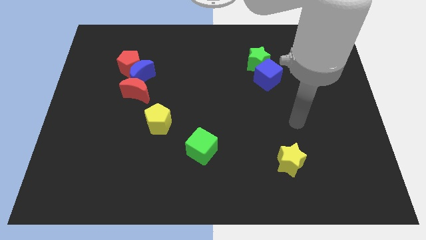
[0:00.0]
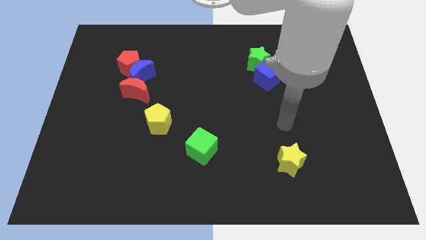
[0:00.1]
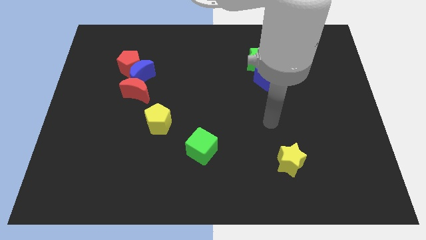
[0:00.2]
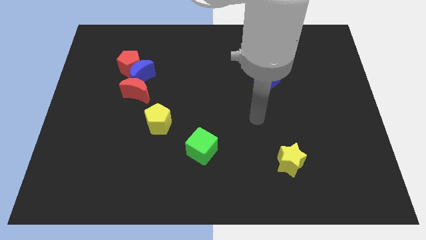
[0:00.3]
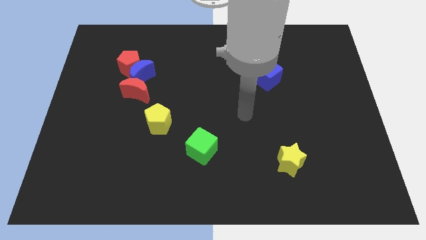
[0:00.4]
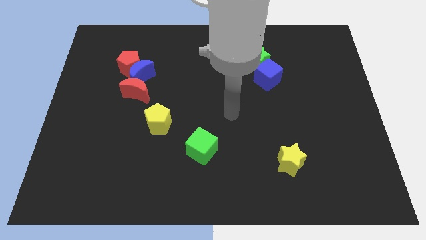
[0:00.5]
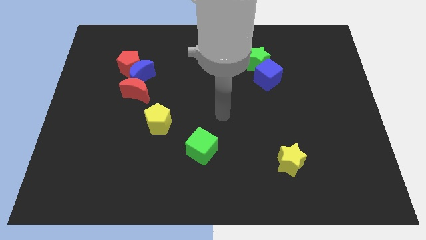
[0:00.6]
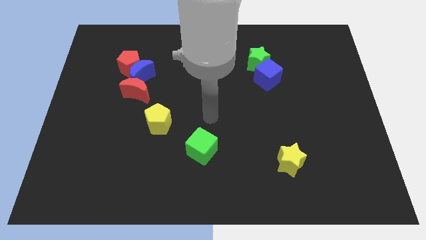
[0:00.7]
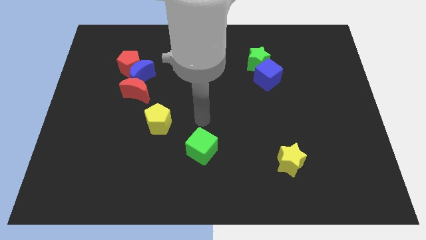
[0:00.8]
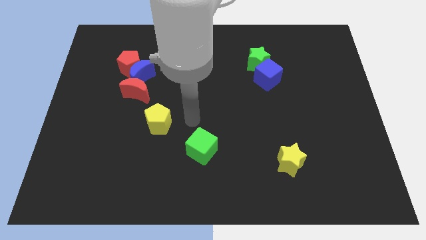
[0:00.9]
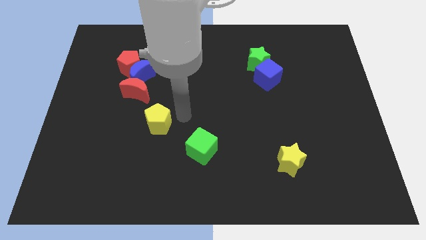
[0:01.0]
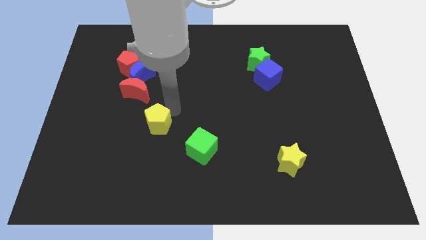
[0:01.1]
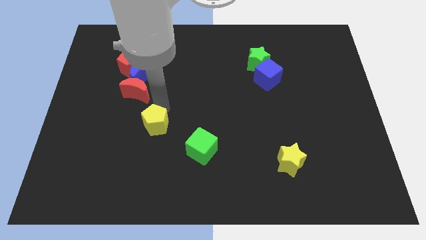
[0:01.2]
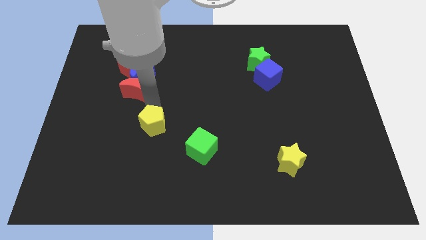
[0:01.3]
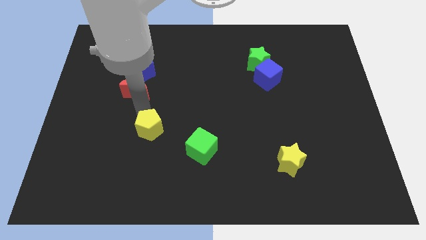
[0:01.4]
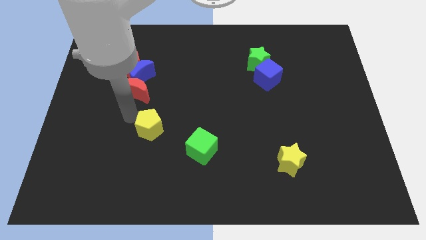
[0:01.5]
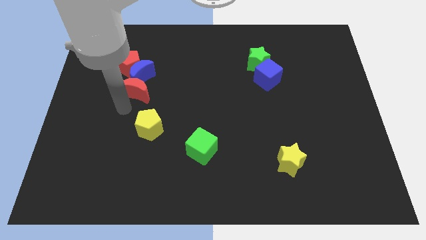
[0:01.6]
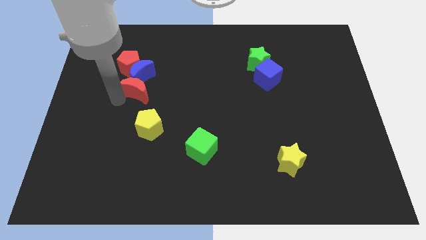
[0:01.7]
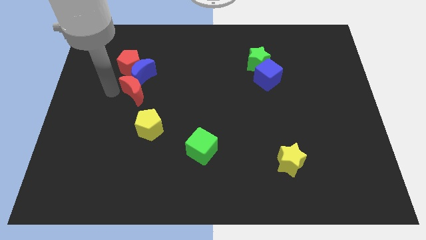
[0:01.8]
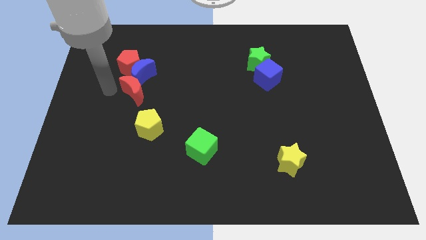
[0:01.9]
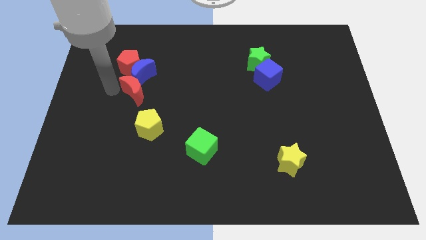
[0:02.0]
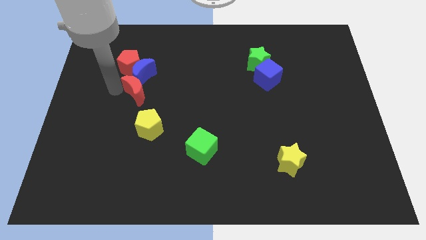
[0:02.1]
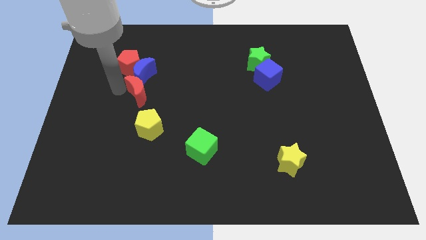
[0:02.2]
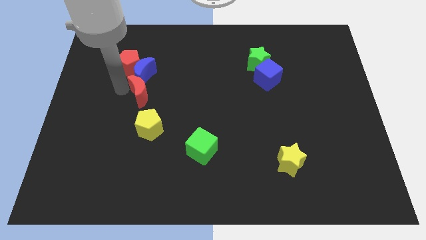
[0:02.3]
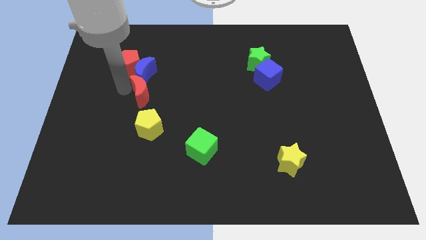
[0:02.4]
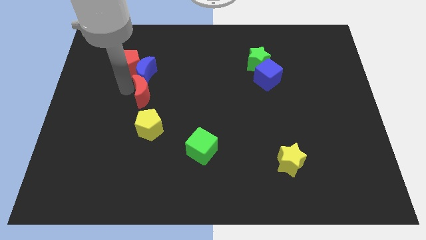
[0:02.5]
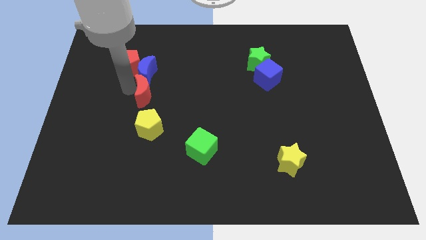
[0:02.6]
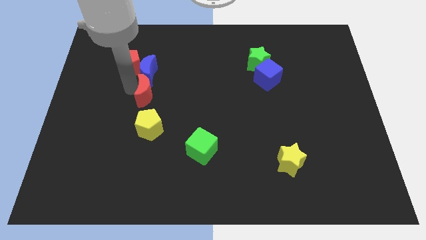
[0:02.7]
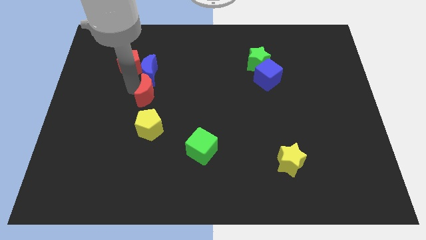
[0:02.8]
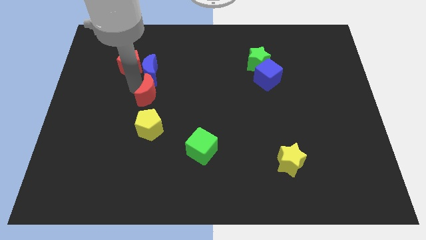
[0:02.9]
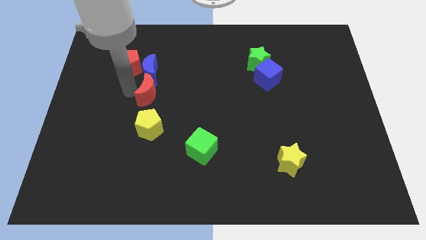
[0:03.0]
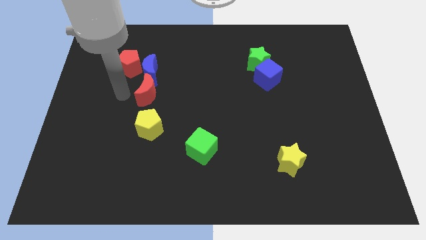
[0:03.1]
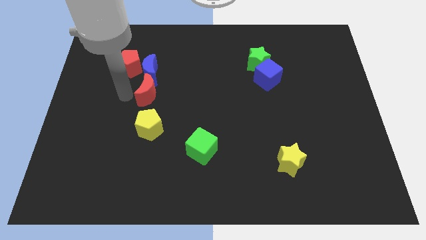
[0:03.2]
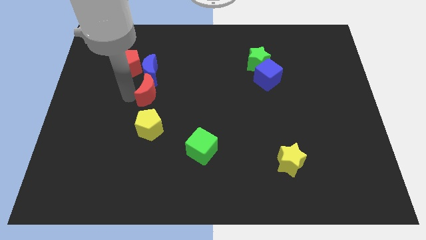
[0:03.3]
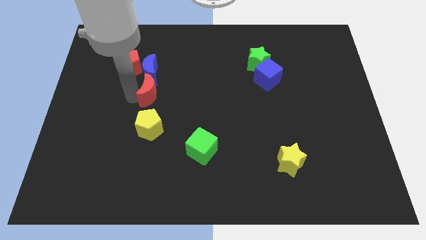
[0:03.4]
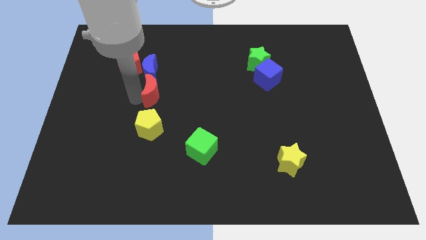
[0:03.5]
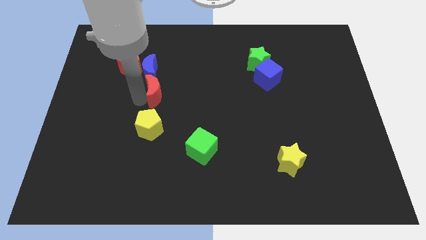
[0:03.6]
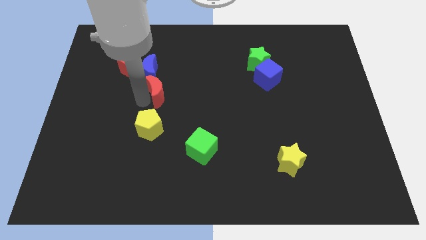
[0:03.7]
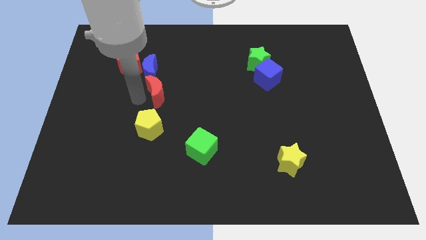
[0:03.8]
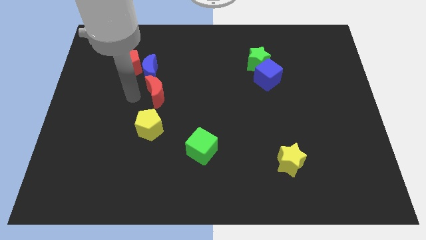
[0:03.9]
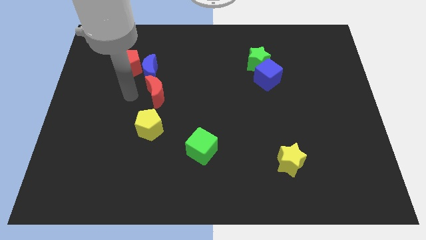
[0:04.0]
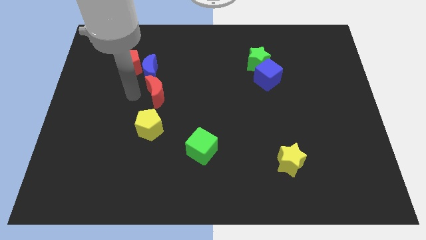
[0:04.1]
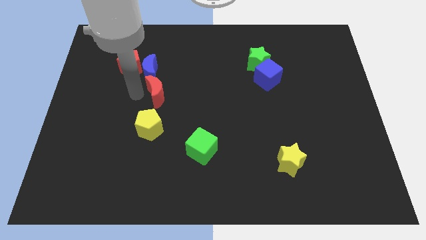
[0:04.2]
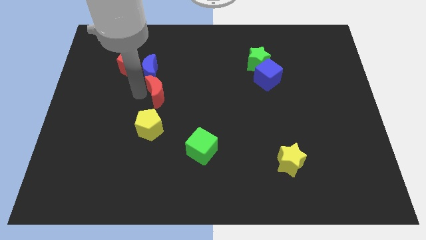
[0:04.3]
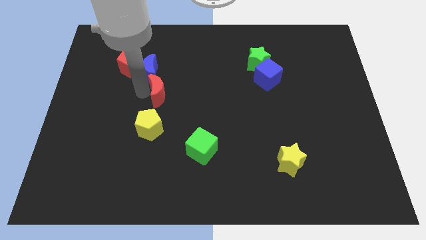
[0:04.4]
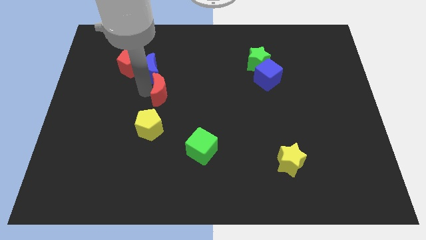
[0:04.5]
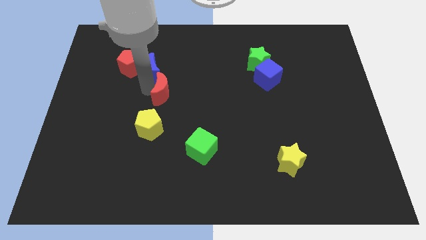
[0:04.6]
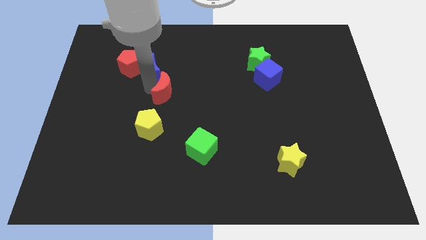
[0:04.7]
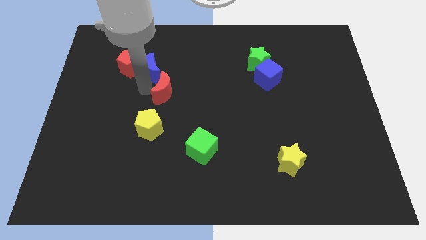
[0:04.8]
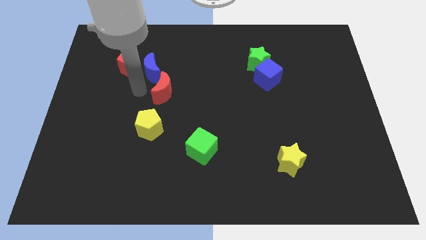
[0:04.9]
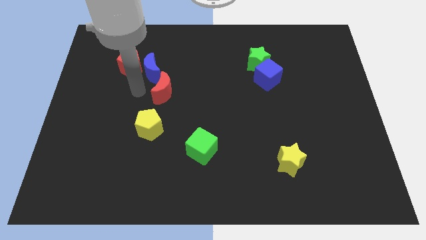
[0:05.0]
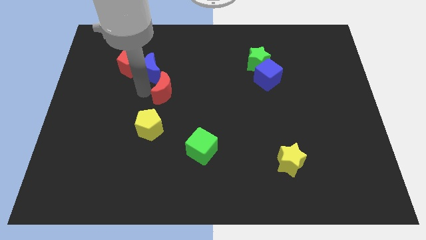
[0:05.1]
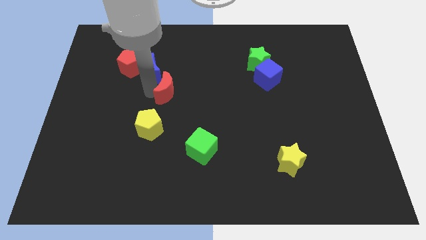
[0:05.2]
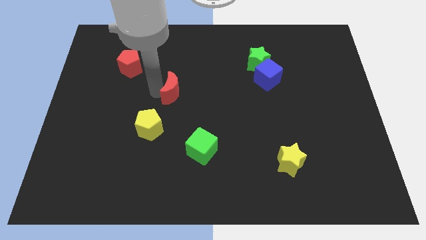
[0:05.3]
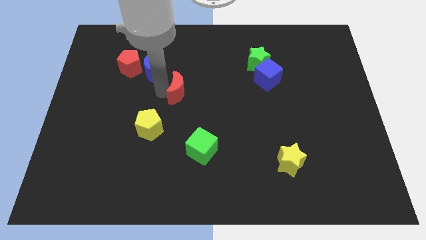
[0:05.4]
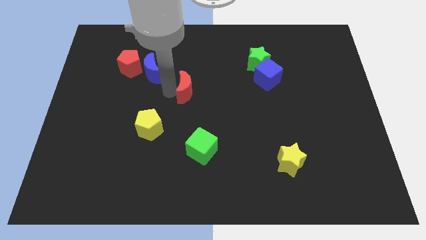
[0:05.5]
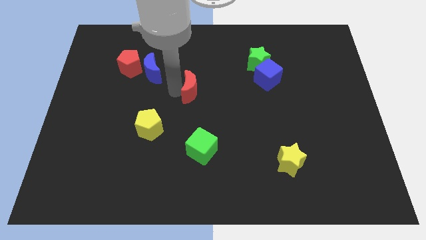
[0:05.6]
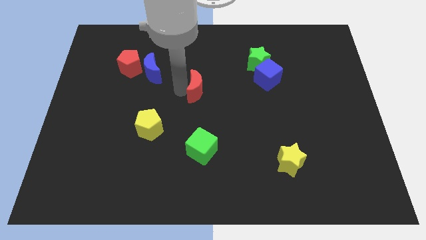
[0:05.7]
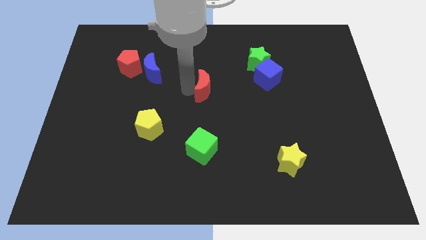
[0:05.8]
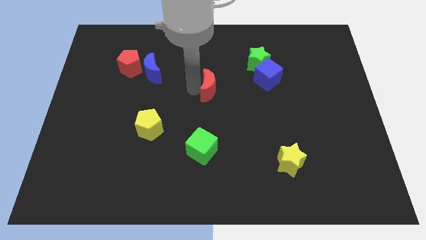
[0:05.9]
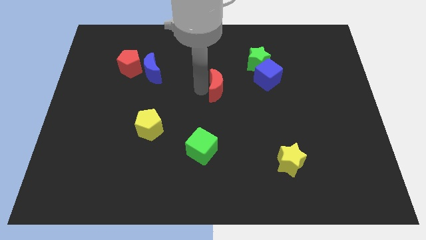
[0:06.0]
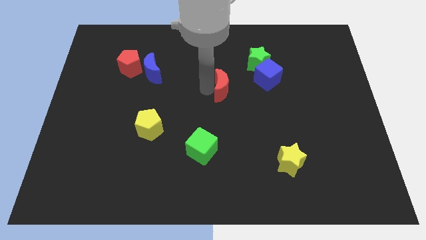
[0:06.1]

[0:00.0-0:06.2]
move the red moon to the right

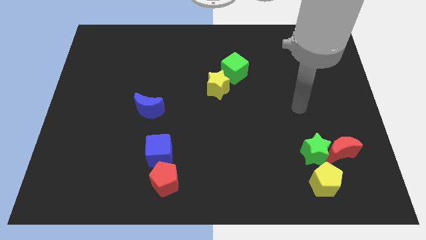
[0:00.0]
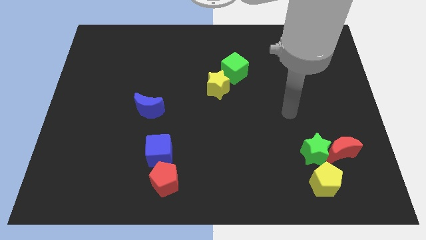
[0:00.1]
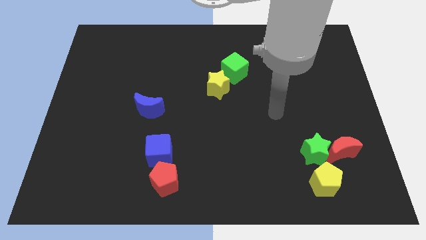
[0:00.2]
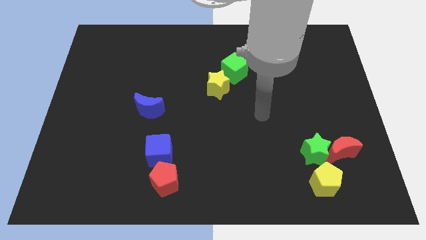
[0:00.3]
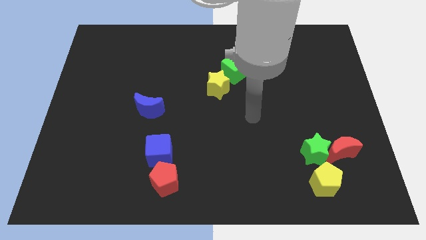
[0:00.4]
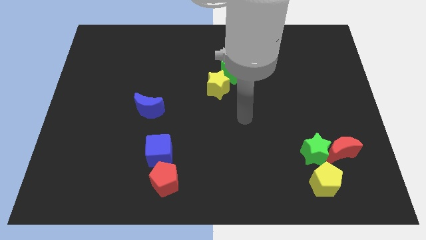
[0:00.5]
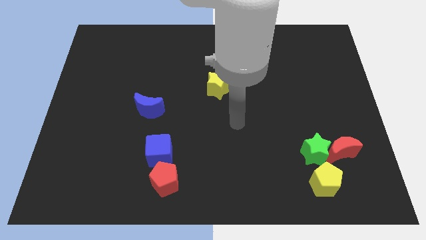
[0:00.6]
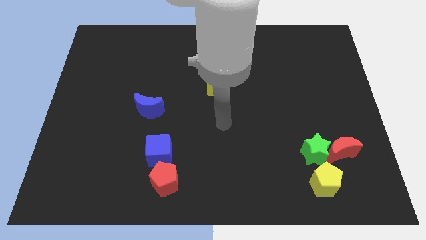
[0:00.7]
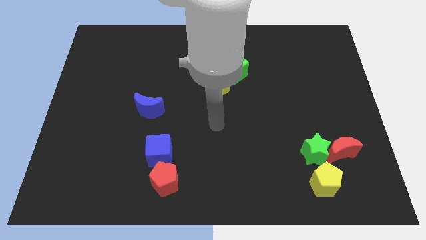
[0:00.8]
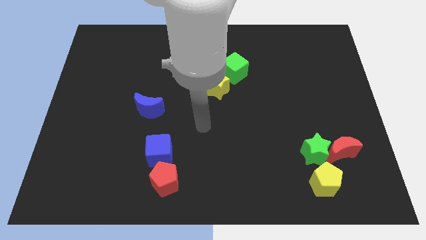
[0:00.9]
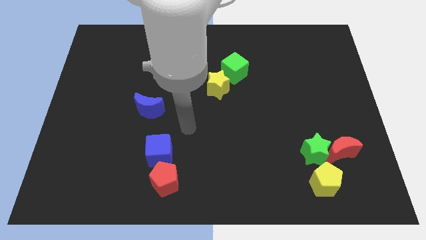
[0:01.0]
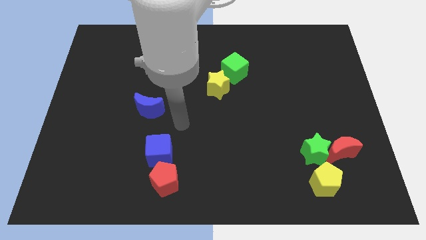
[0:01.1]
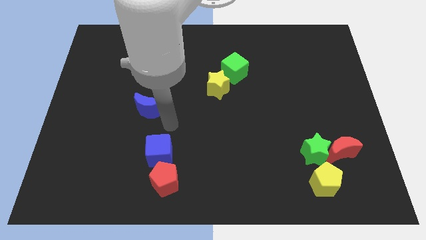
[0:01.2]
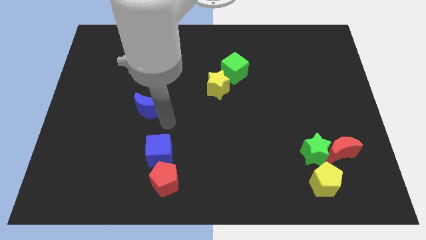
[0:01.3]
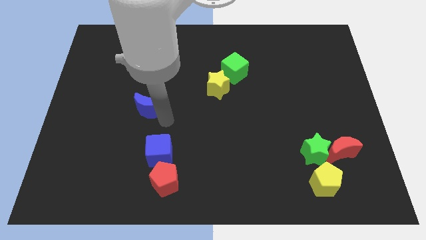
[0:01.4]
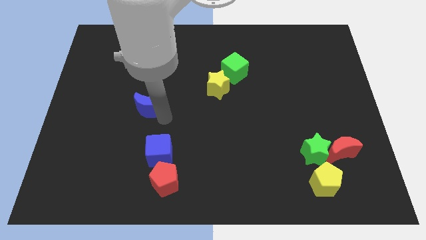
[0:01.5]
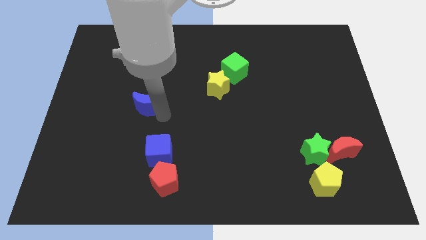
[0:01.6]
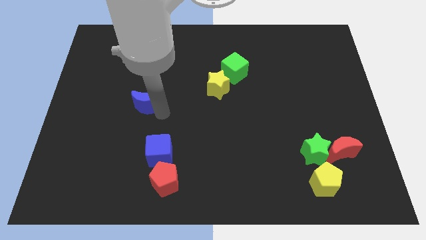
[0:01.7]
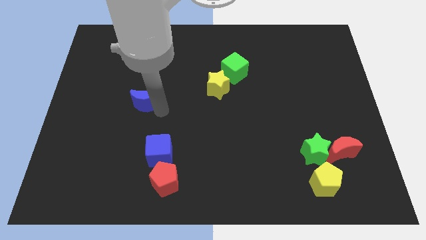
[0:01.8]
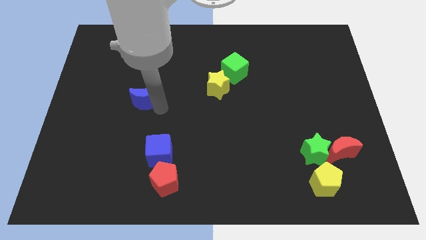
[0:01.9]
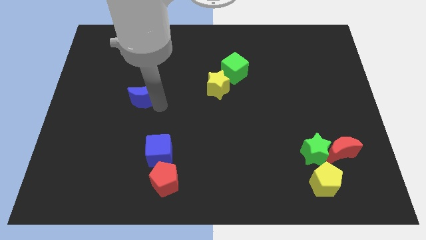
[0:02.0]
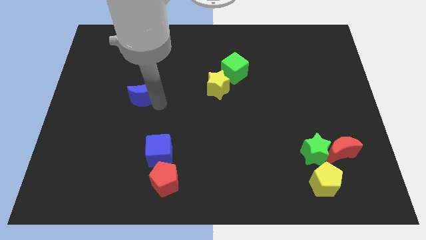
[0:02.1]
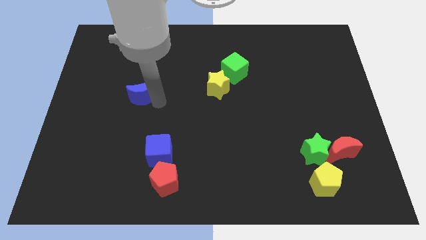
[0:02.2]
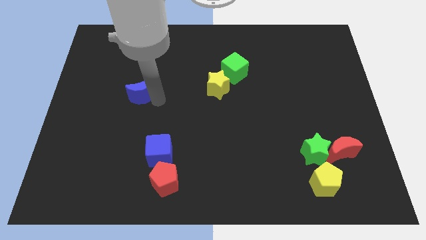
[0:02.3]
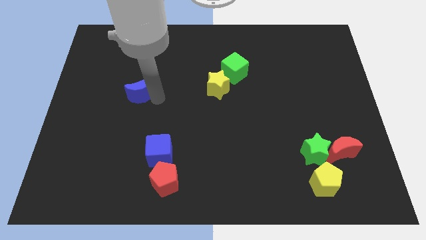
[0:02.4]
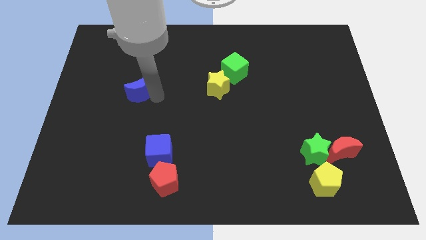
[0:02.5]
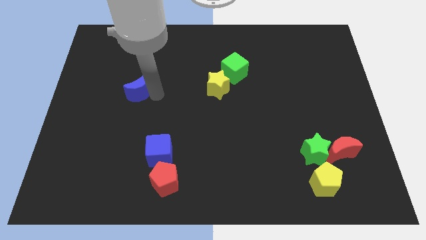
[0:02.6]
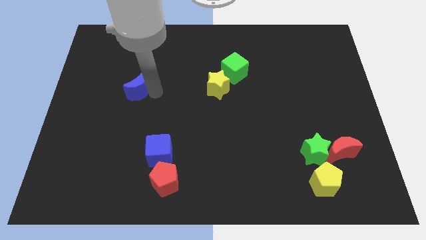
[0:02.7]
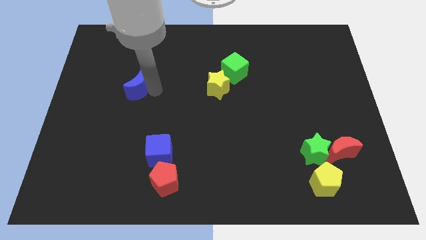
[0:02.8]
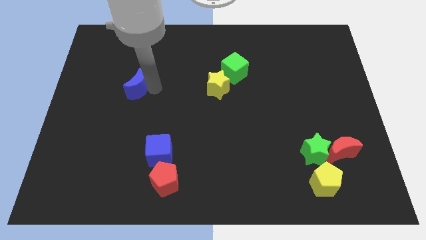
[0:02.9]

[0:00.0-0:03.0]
move the blue moon upwards and then left a little bit
